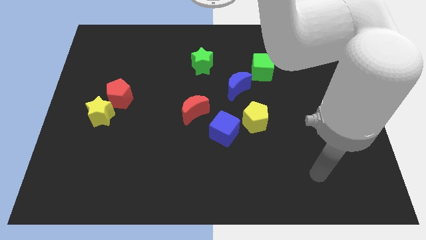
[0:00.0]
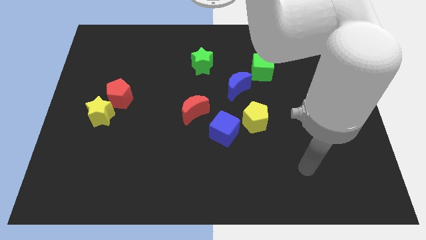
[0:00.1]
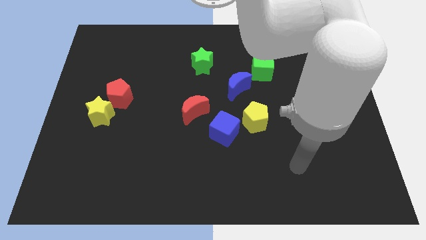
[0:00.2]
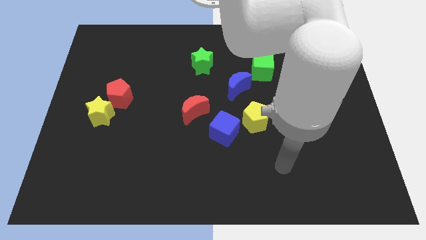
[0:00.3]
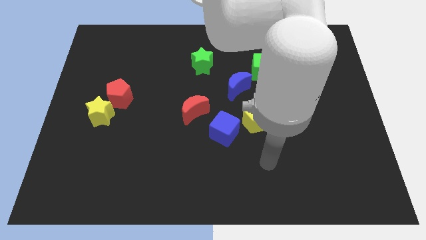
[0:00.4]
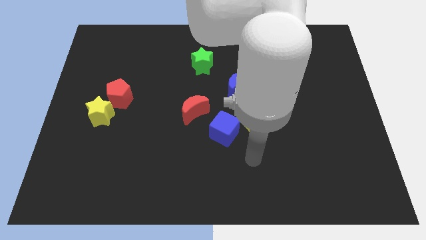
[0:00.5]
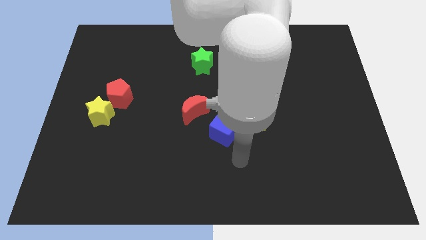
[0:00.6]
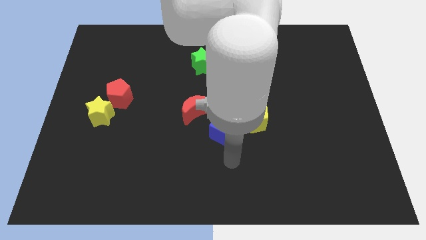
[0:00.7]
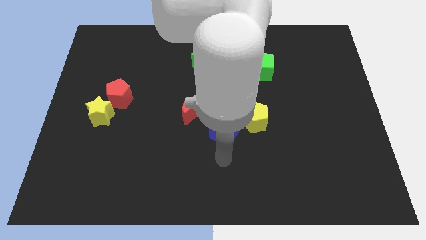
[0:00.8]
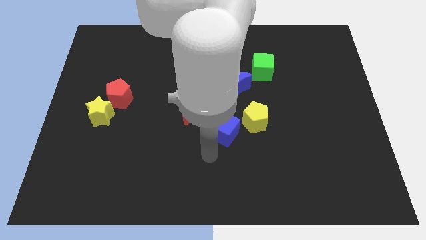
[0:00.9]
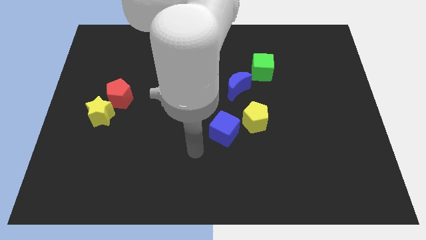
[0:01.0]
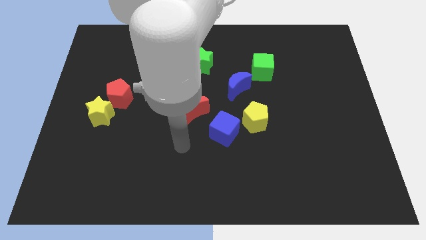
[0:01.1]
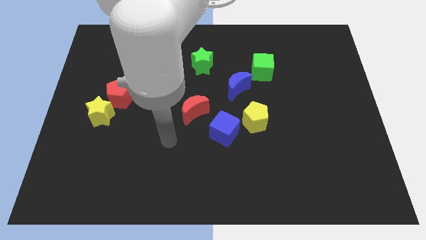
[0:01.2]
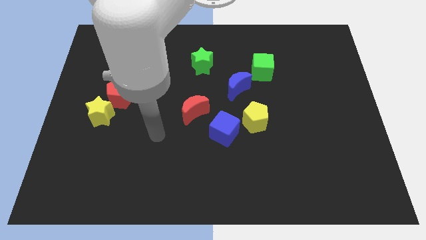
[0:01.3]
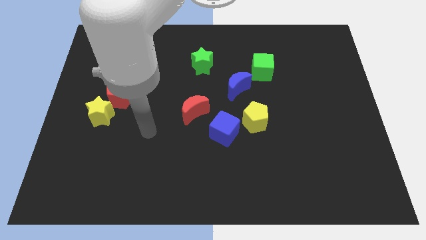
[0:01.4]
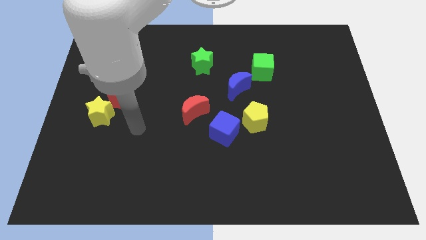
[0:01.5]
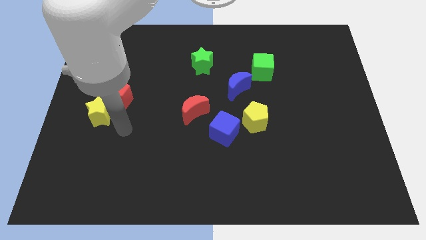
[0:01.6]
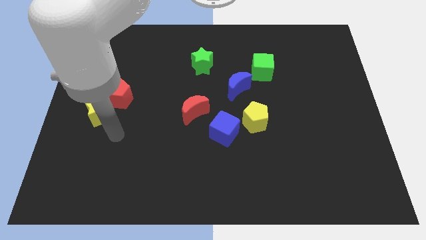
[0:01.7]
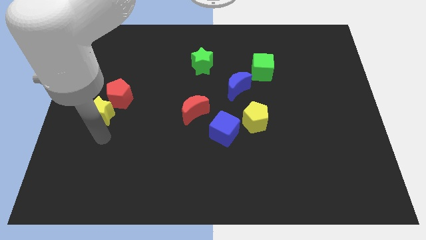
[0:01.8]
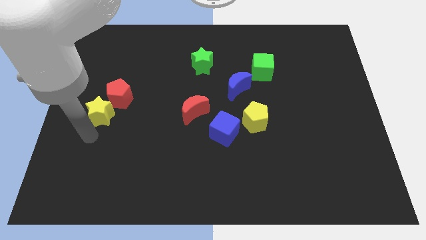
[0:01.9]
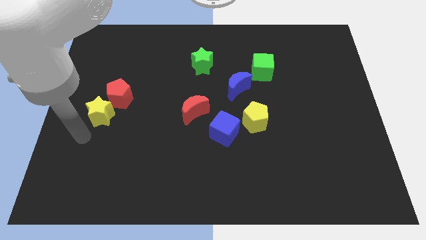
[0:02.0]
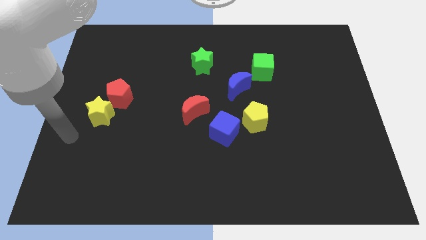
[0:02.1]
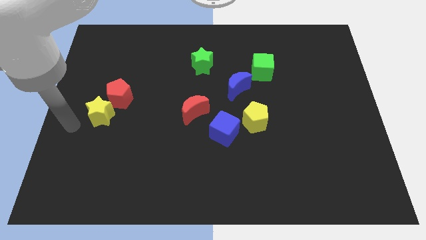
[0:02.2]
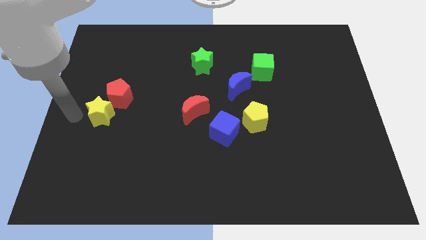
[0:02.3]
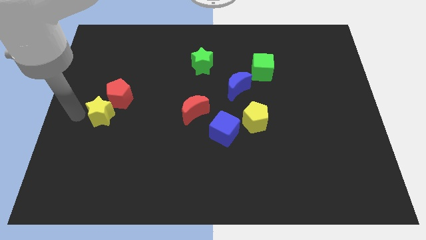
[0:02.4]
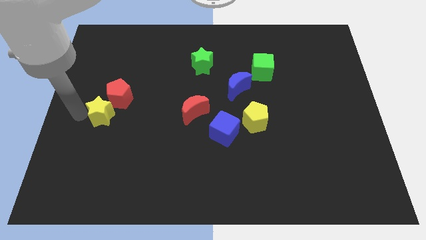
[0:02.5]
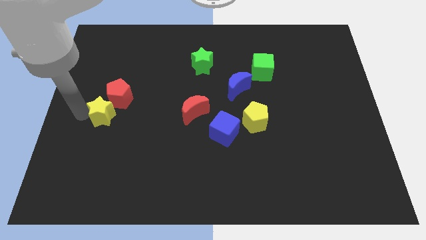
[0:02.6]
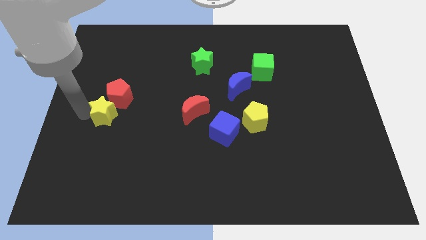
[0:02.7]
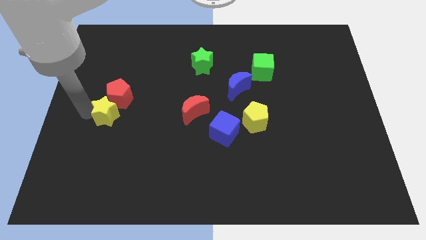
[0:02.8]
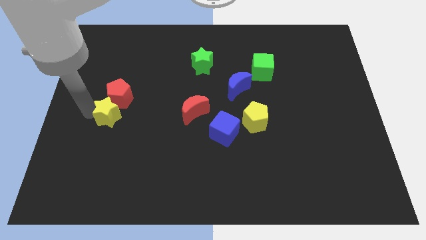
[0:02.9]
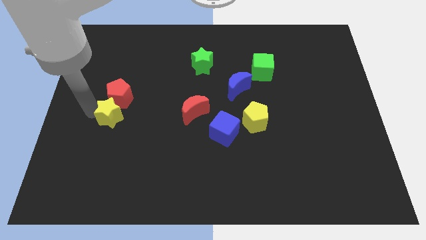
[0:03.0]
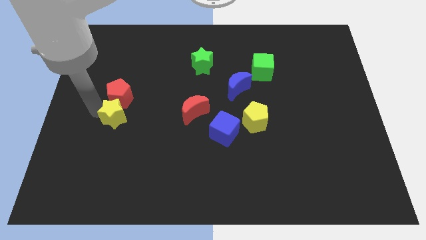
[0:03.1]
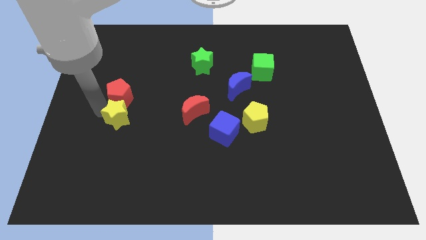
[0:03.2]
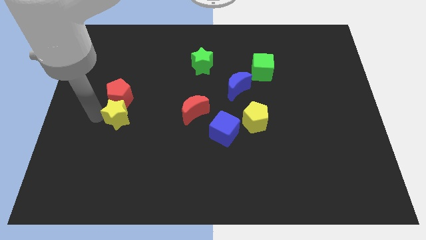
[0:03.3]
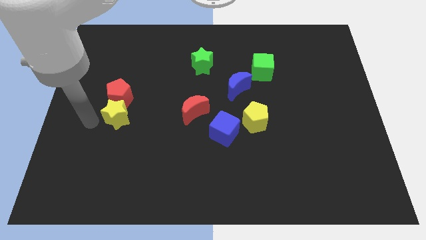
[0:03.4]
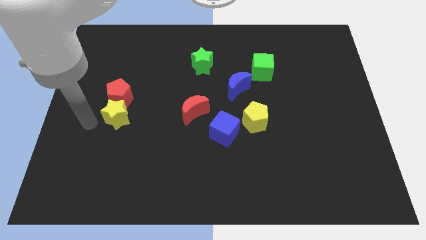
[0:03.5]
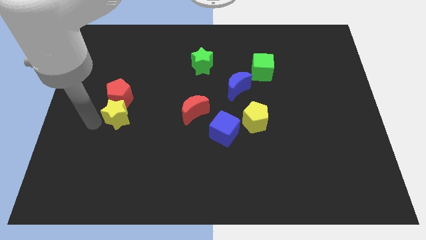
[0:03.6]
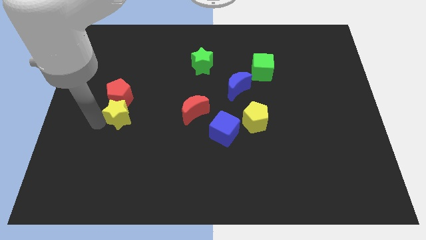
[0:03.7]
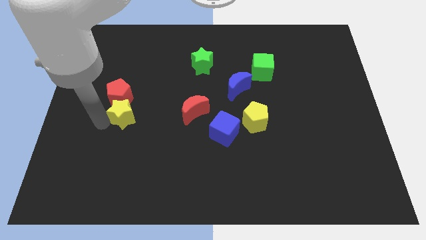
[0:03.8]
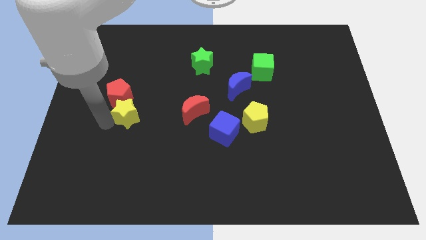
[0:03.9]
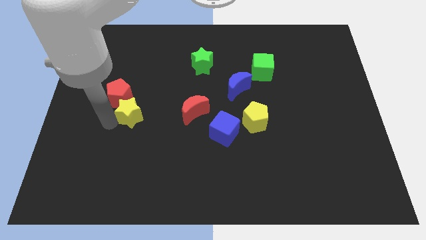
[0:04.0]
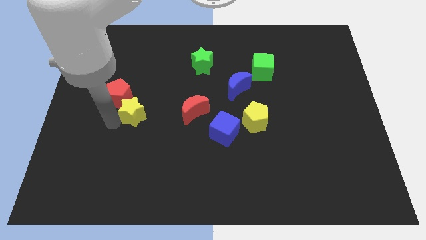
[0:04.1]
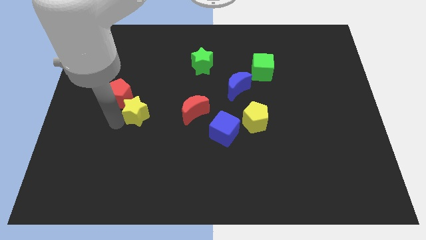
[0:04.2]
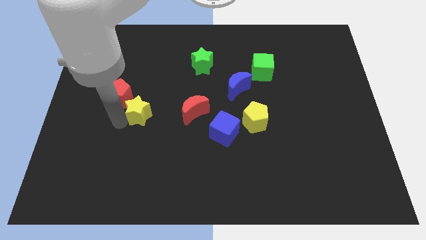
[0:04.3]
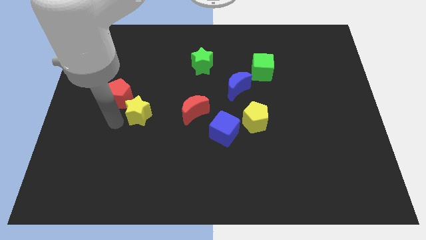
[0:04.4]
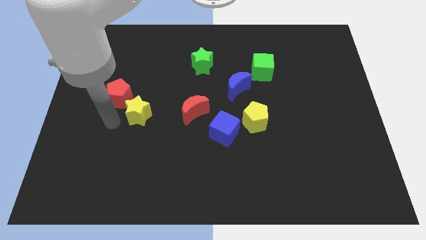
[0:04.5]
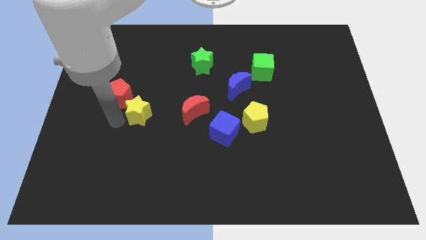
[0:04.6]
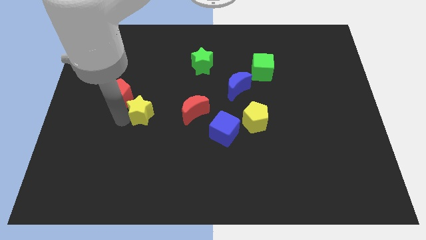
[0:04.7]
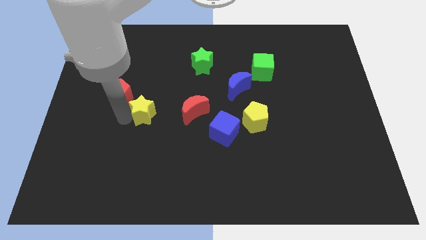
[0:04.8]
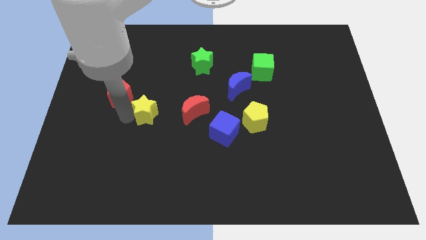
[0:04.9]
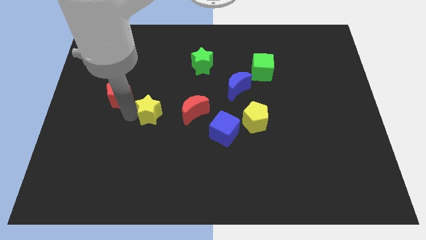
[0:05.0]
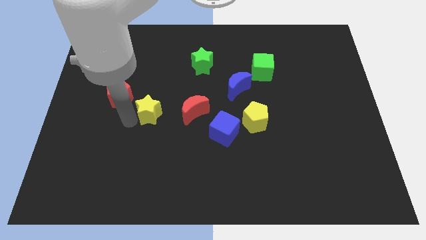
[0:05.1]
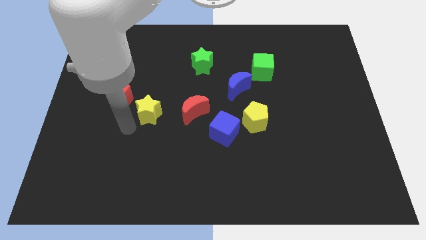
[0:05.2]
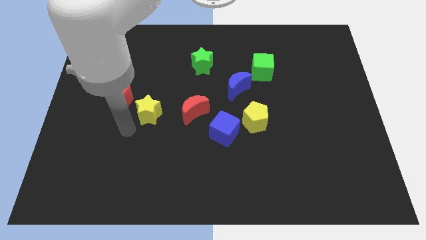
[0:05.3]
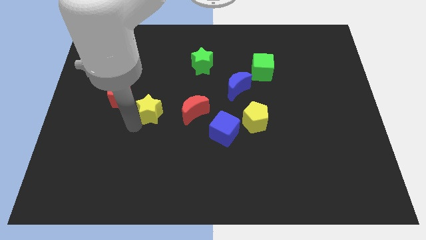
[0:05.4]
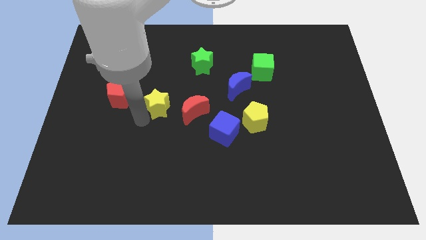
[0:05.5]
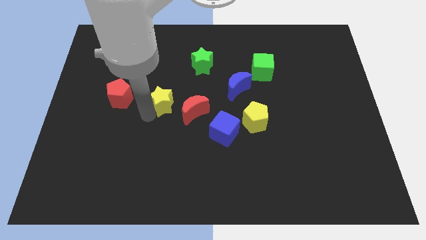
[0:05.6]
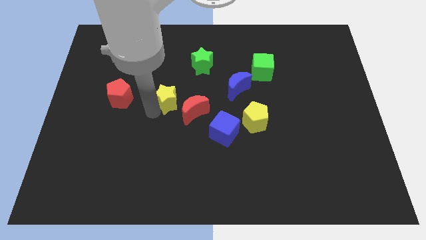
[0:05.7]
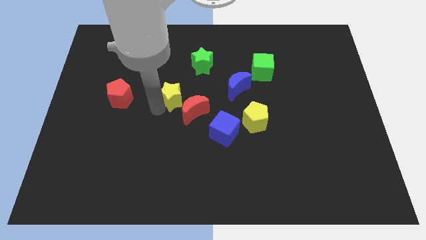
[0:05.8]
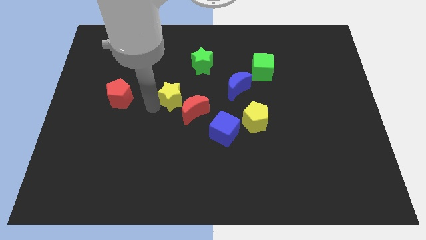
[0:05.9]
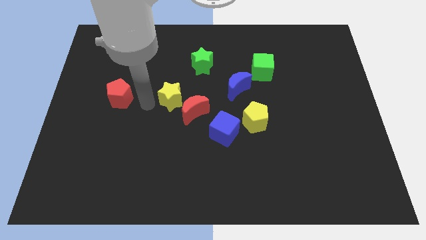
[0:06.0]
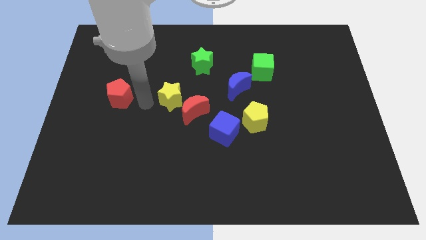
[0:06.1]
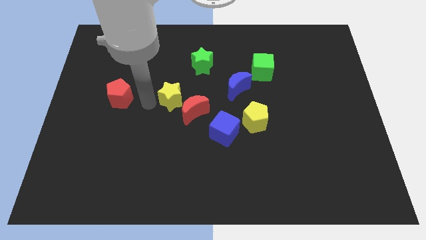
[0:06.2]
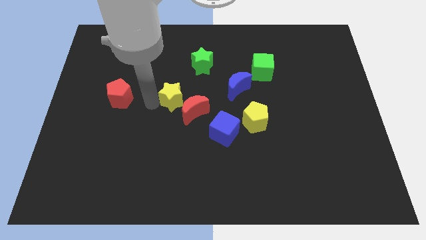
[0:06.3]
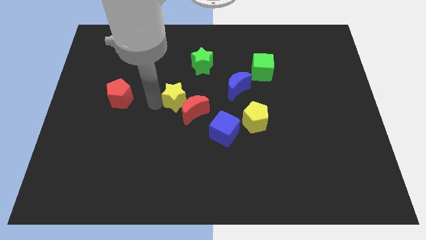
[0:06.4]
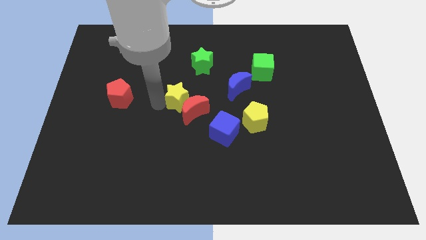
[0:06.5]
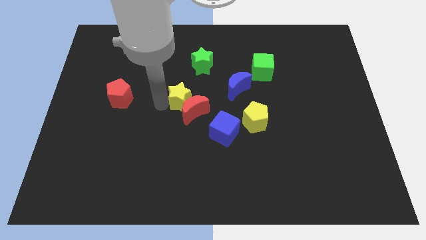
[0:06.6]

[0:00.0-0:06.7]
push the yellow star to the bottom side of the green star

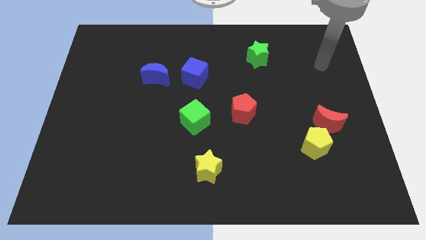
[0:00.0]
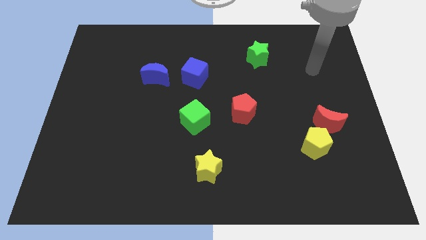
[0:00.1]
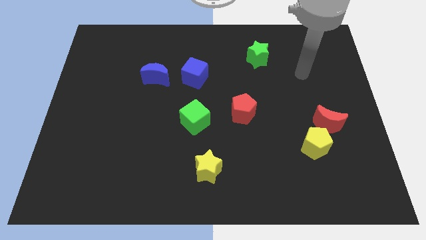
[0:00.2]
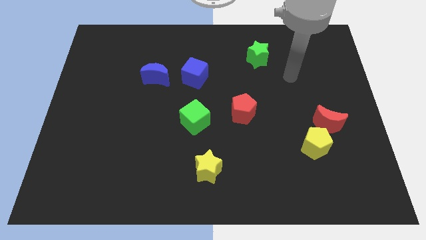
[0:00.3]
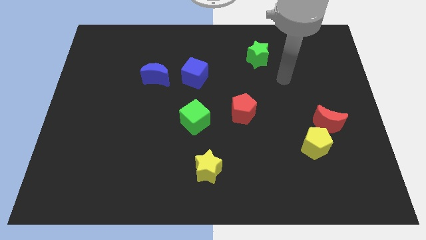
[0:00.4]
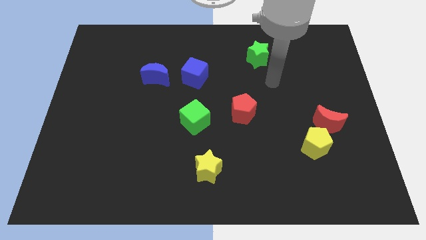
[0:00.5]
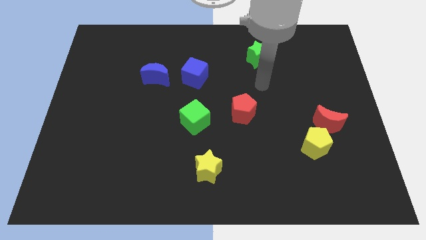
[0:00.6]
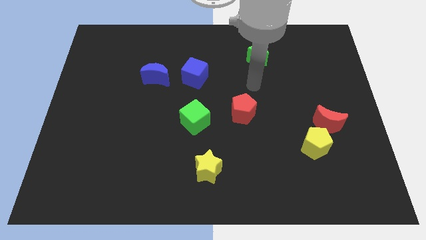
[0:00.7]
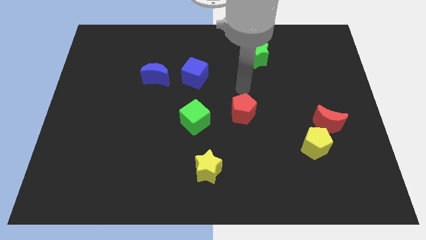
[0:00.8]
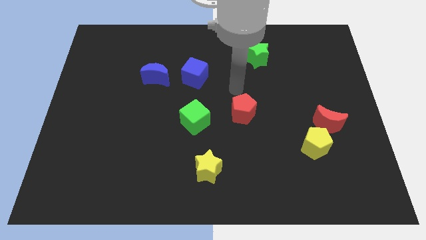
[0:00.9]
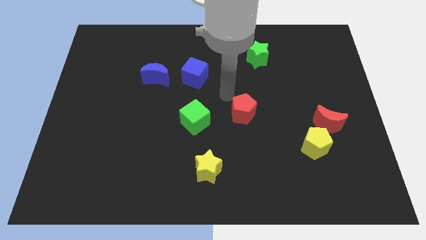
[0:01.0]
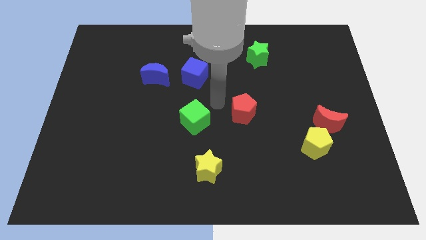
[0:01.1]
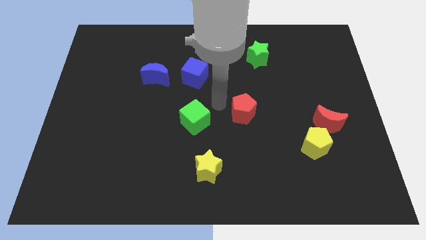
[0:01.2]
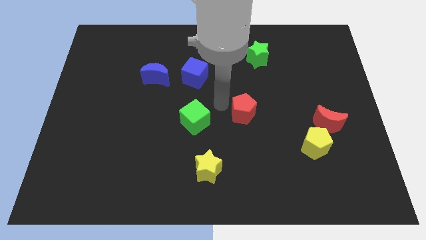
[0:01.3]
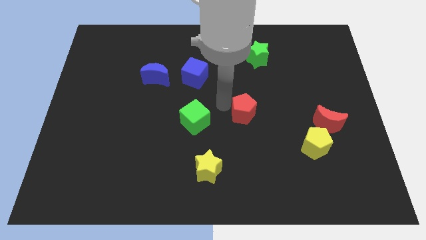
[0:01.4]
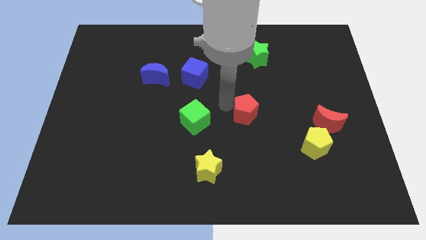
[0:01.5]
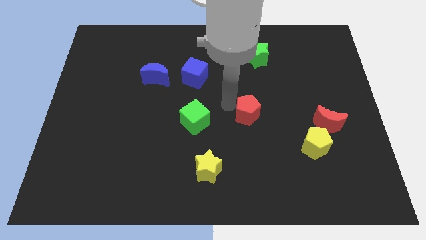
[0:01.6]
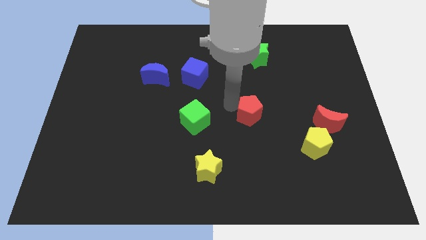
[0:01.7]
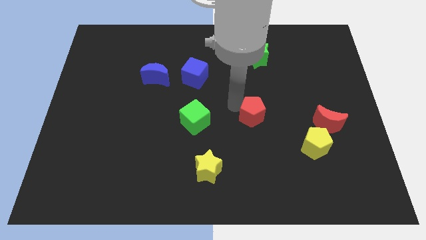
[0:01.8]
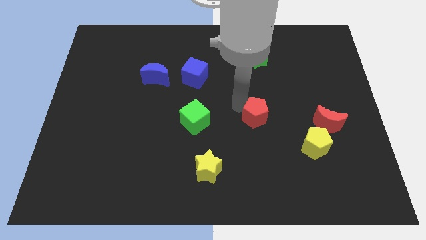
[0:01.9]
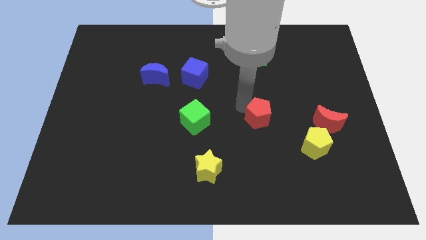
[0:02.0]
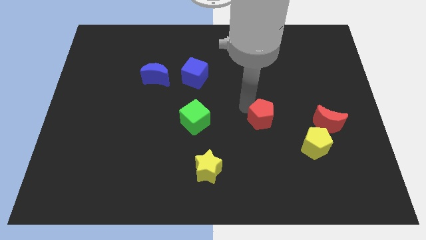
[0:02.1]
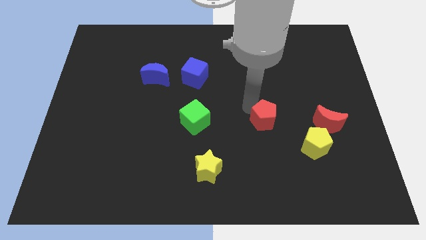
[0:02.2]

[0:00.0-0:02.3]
put the red pentagon to the top left side of the yellow pentagon
